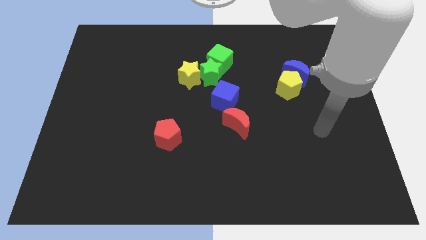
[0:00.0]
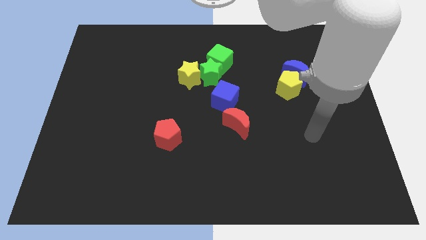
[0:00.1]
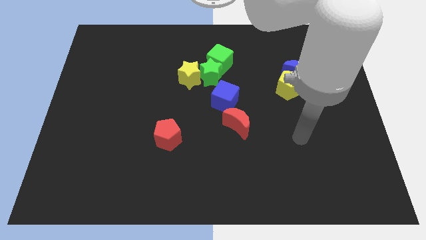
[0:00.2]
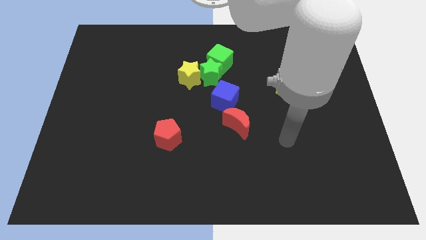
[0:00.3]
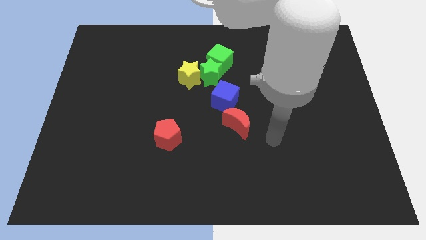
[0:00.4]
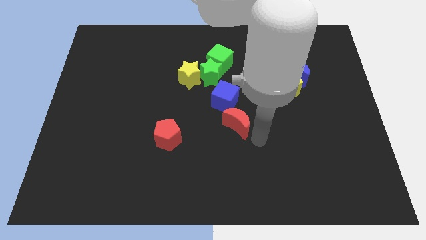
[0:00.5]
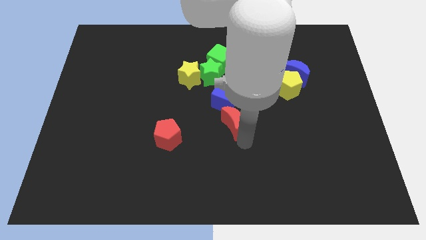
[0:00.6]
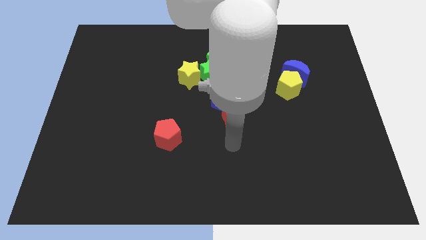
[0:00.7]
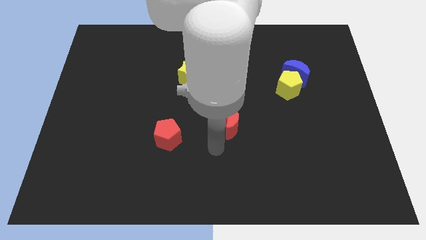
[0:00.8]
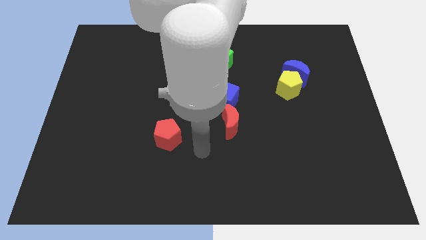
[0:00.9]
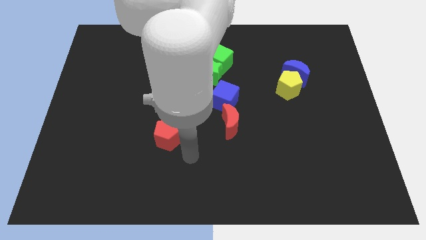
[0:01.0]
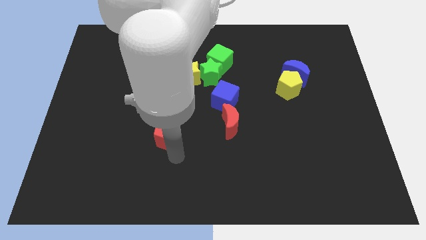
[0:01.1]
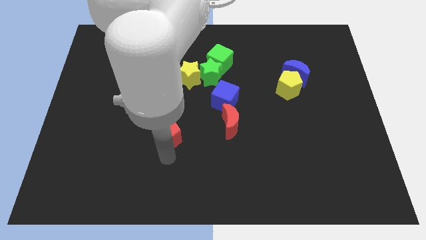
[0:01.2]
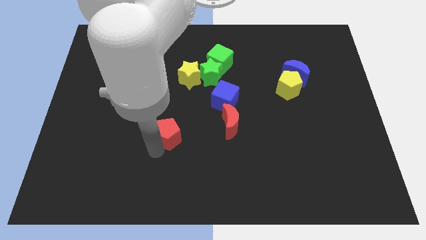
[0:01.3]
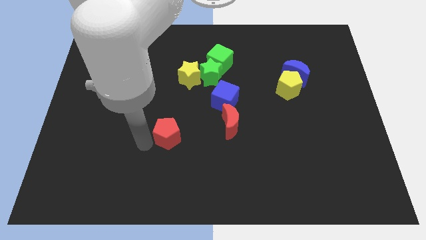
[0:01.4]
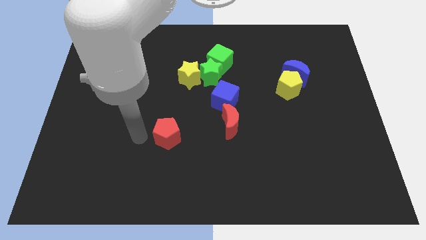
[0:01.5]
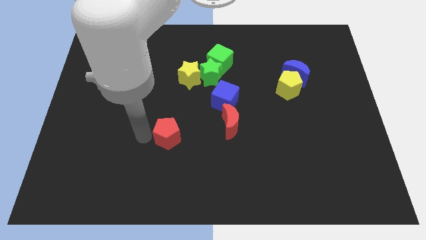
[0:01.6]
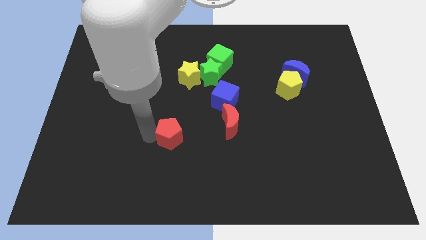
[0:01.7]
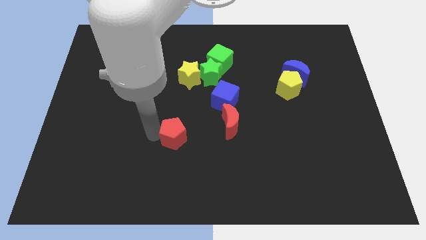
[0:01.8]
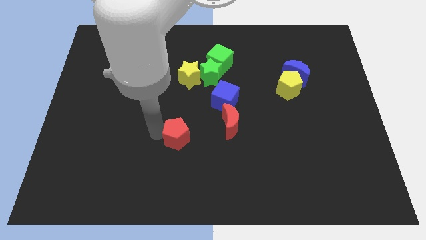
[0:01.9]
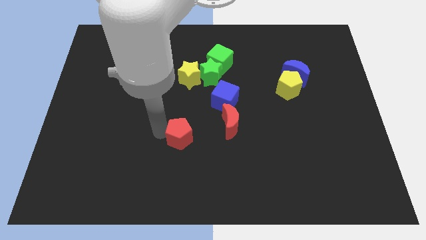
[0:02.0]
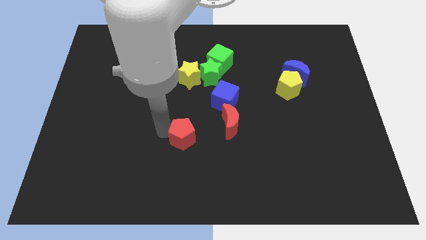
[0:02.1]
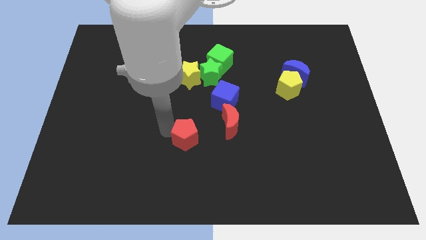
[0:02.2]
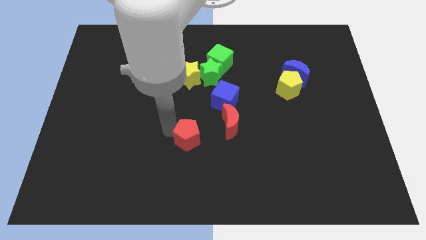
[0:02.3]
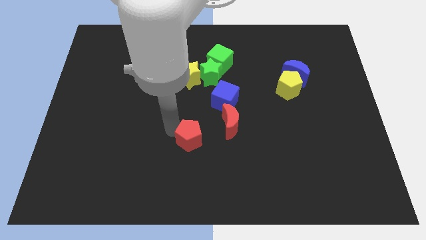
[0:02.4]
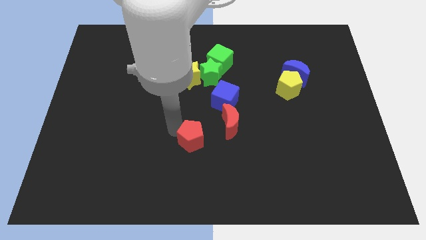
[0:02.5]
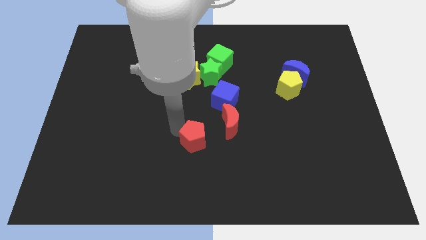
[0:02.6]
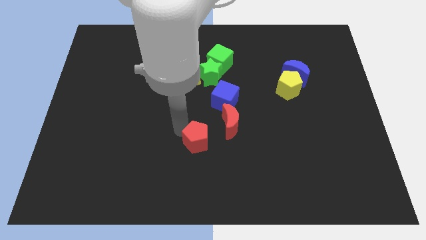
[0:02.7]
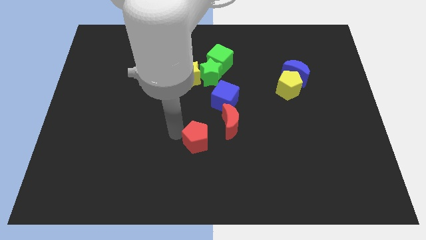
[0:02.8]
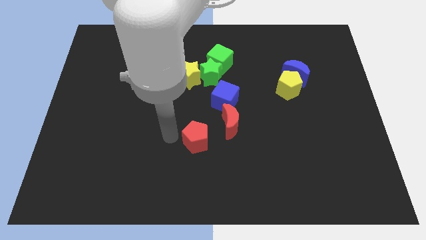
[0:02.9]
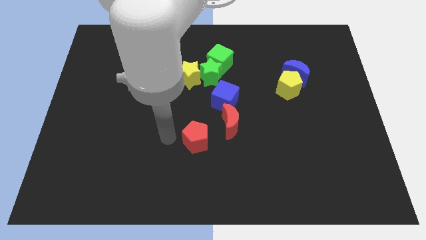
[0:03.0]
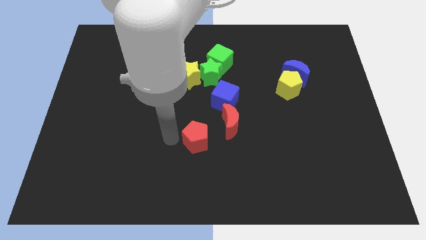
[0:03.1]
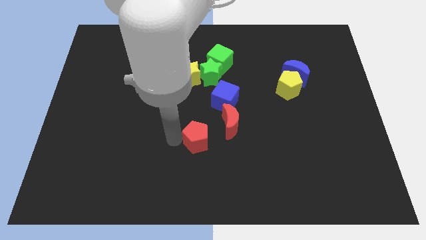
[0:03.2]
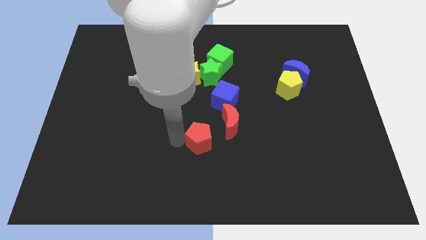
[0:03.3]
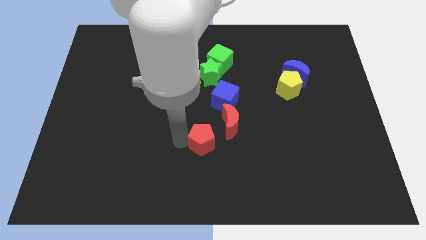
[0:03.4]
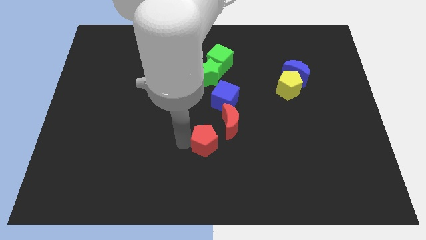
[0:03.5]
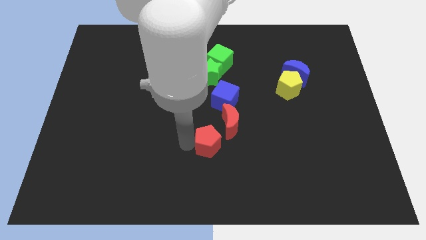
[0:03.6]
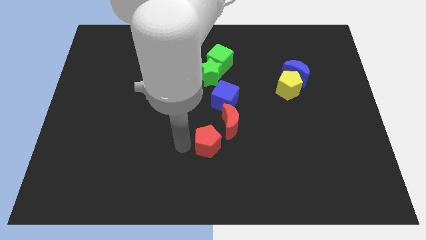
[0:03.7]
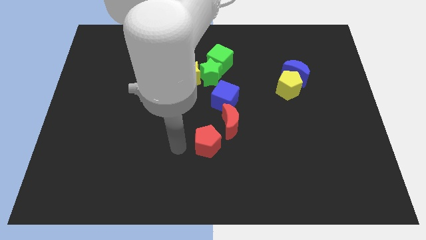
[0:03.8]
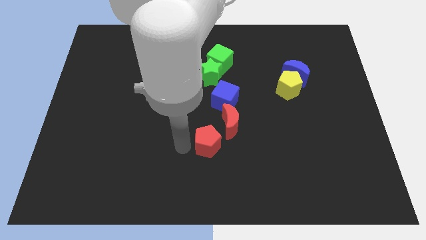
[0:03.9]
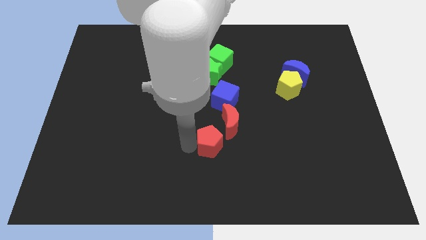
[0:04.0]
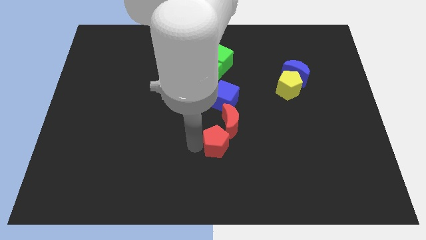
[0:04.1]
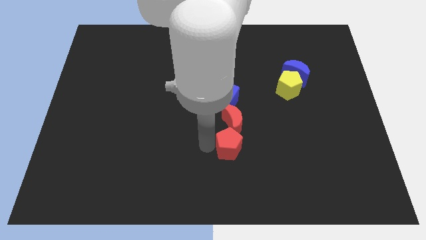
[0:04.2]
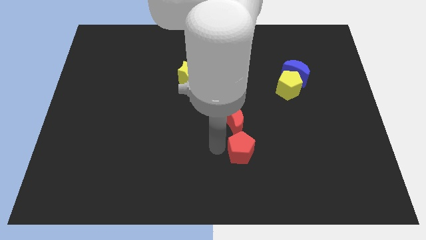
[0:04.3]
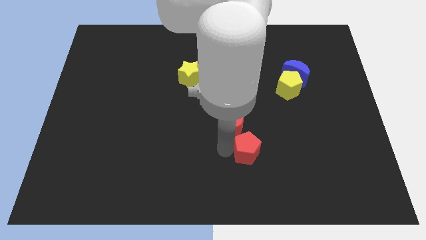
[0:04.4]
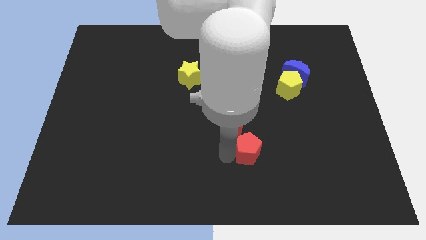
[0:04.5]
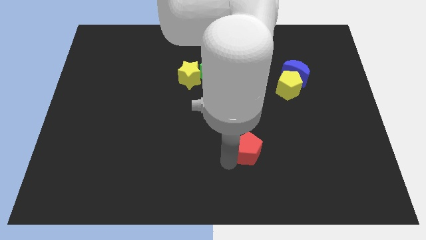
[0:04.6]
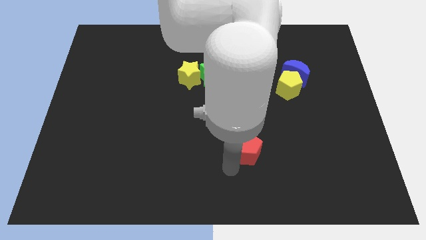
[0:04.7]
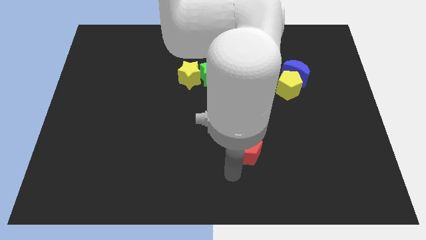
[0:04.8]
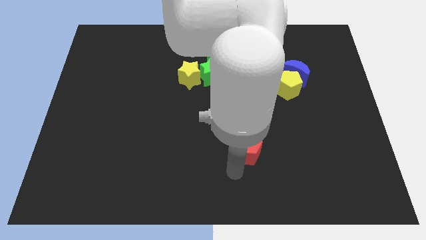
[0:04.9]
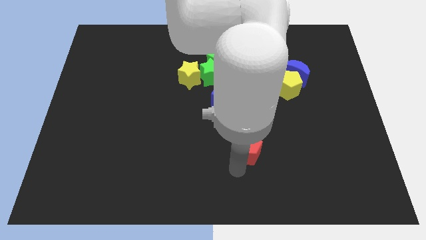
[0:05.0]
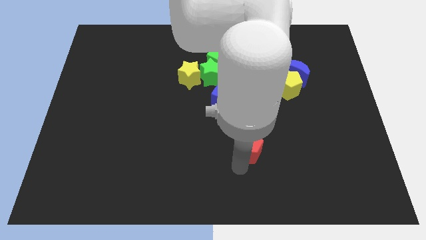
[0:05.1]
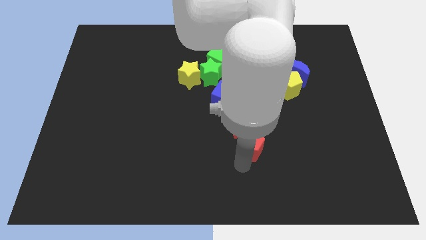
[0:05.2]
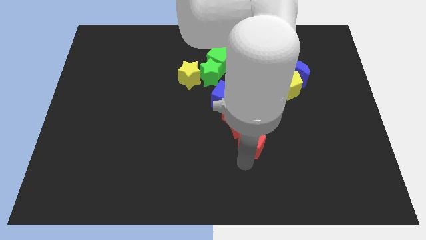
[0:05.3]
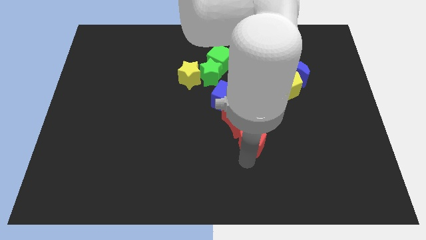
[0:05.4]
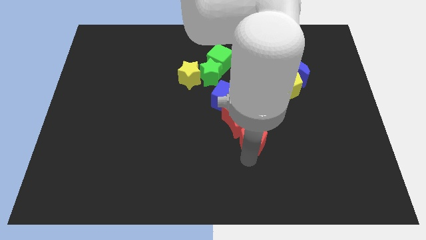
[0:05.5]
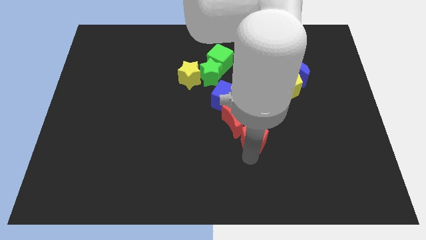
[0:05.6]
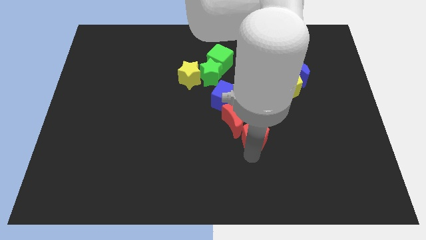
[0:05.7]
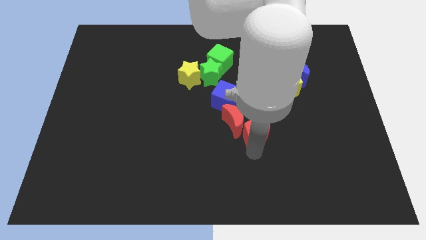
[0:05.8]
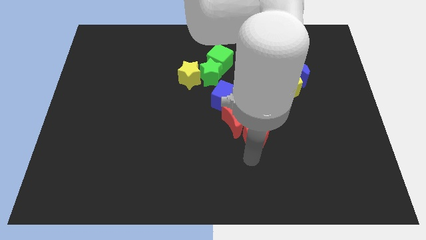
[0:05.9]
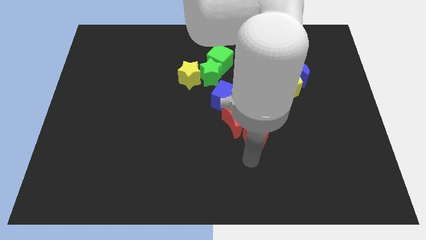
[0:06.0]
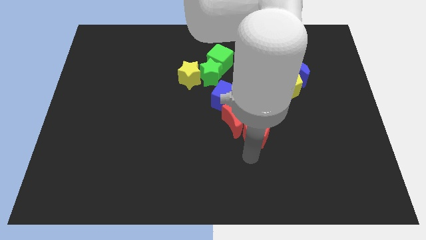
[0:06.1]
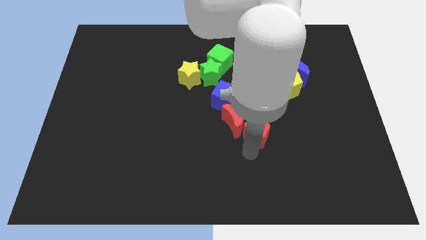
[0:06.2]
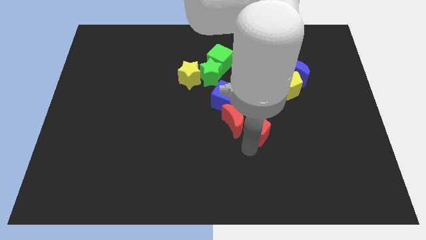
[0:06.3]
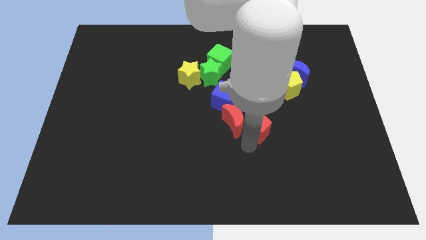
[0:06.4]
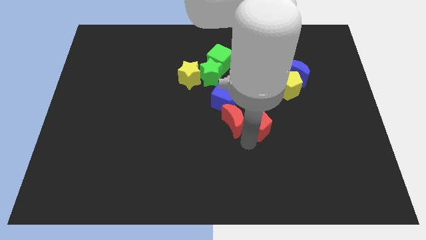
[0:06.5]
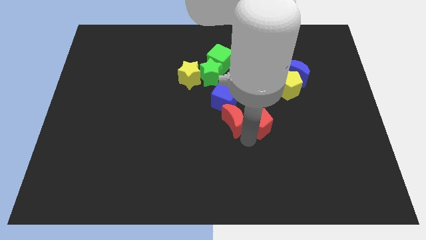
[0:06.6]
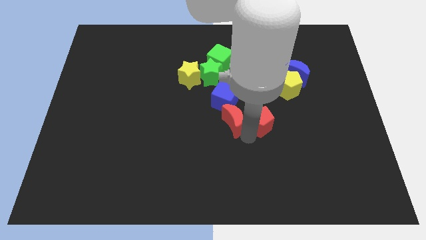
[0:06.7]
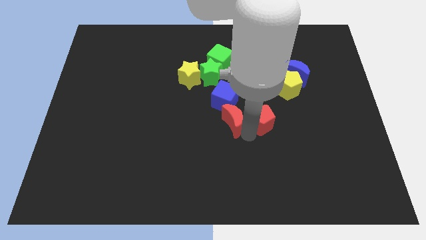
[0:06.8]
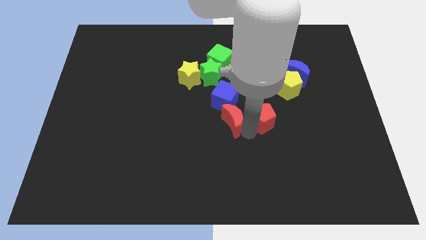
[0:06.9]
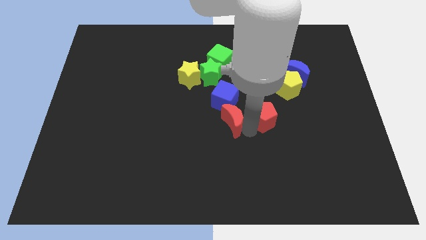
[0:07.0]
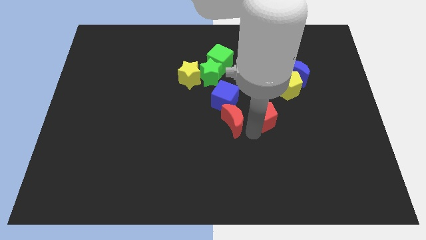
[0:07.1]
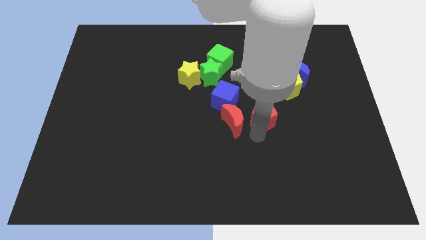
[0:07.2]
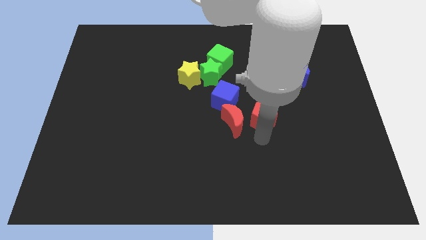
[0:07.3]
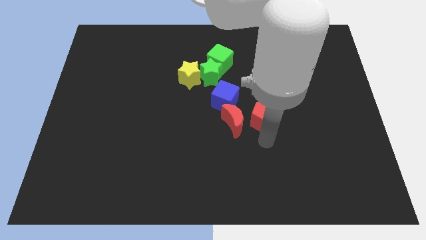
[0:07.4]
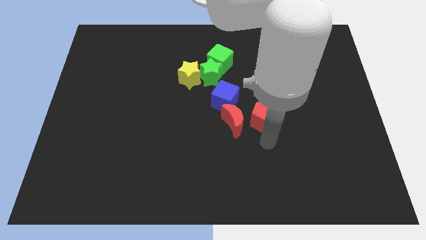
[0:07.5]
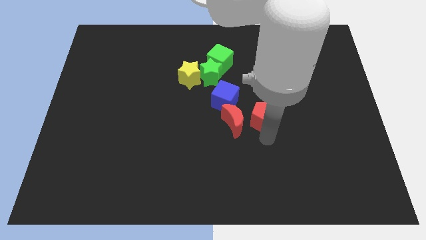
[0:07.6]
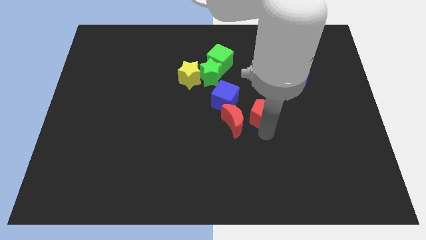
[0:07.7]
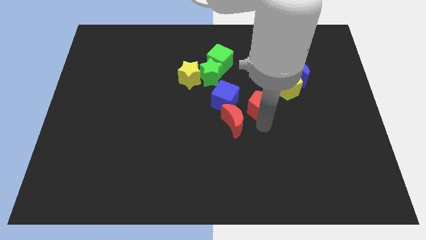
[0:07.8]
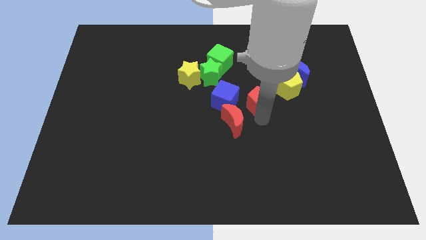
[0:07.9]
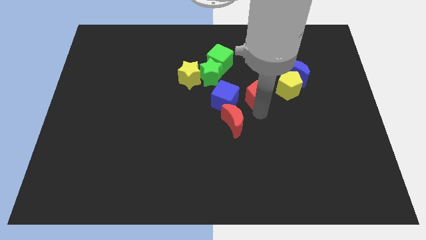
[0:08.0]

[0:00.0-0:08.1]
move the red pentagon up and to the right
